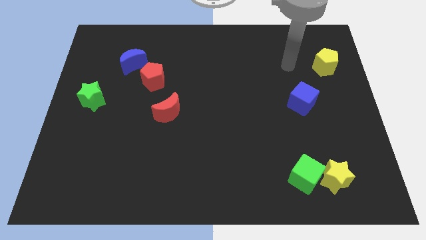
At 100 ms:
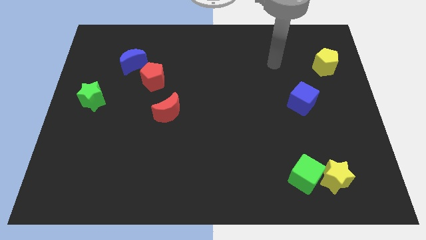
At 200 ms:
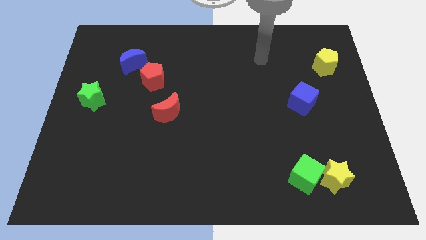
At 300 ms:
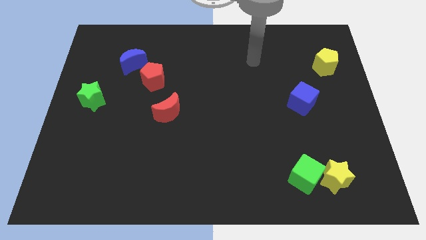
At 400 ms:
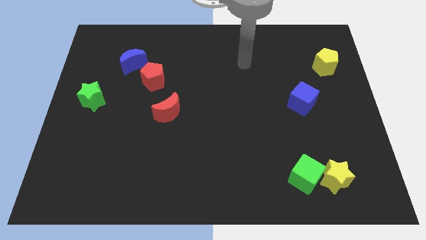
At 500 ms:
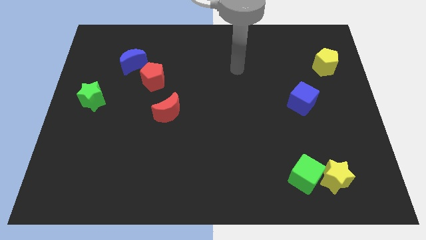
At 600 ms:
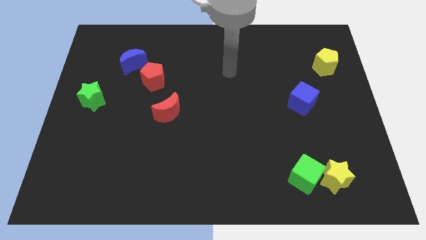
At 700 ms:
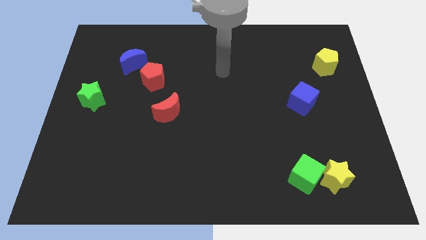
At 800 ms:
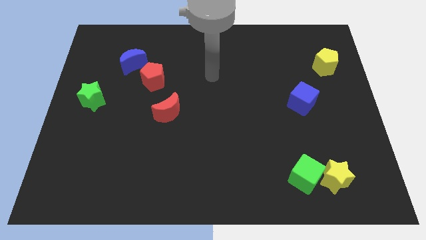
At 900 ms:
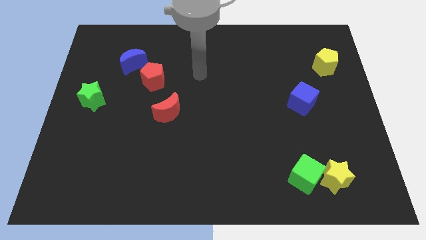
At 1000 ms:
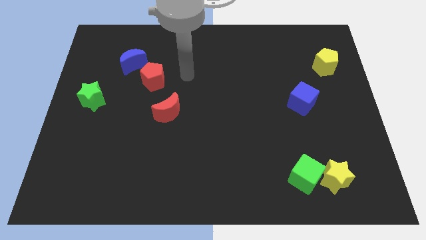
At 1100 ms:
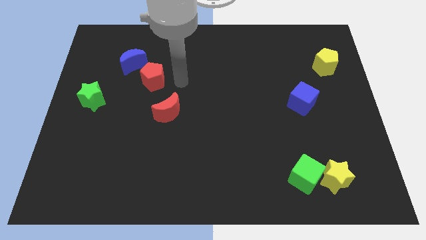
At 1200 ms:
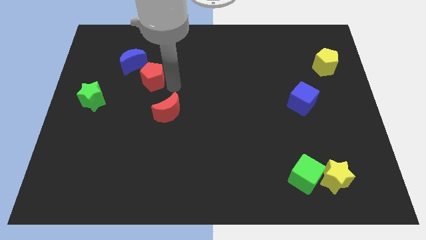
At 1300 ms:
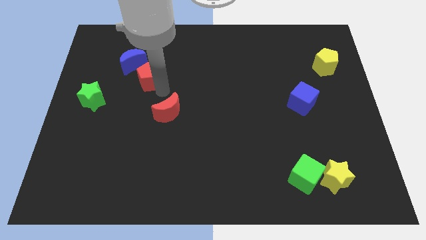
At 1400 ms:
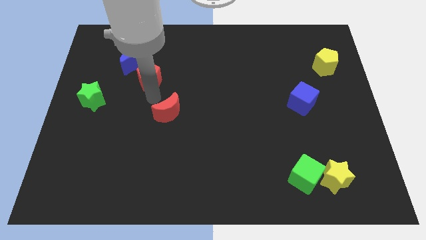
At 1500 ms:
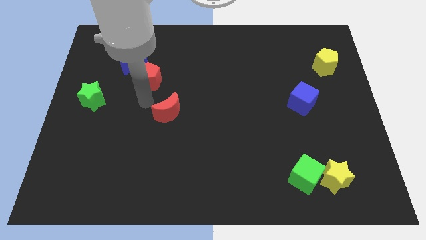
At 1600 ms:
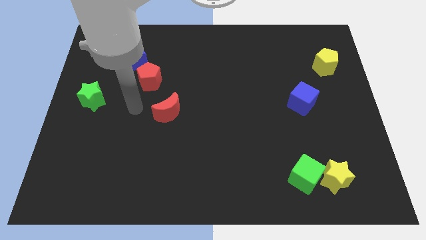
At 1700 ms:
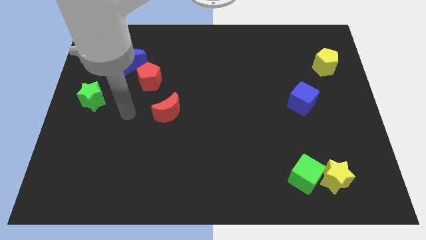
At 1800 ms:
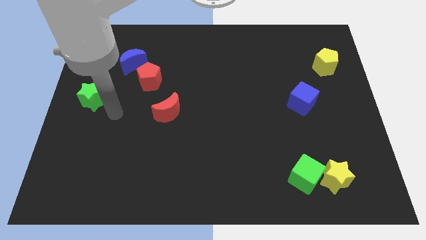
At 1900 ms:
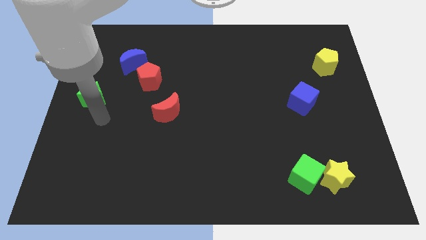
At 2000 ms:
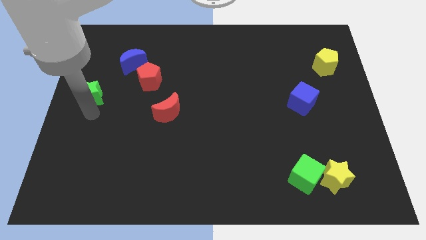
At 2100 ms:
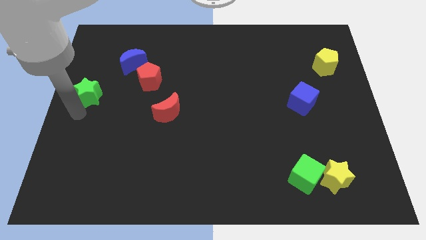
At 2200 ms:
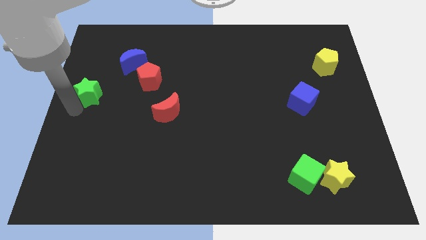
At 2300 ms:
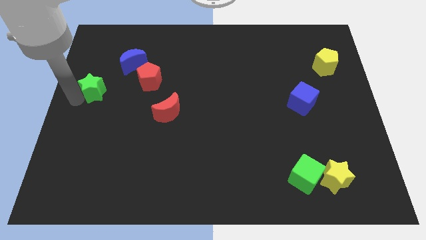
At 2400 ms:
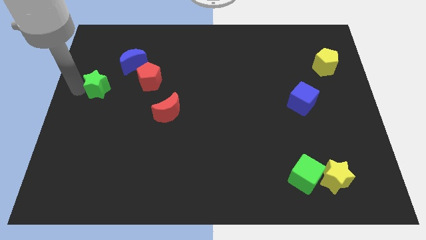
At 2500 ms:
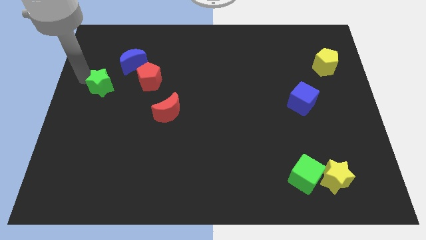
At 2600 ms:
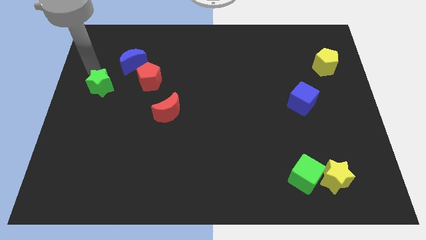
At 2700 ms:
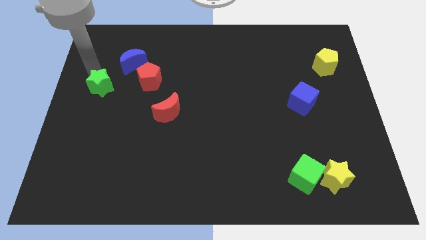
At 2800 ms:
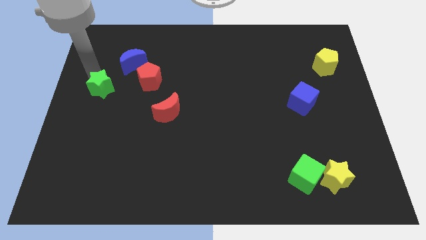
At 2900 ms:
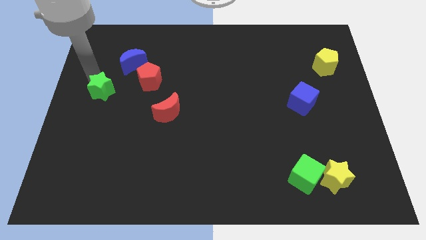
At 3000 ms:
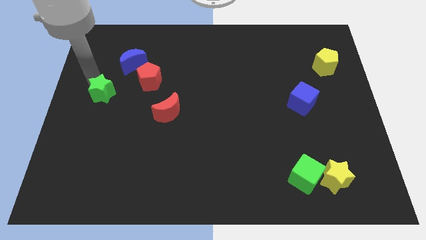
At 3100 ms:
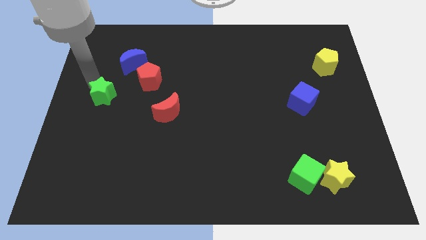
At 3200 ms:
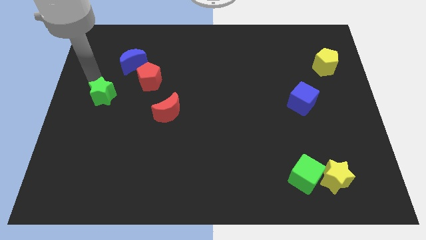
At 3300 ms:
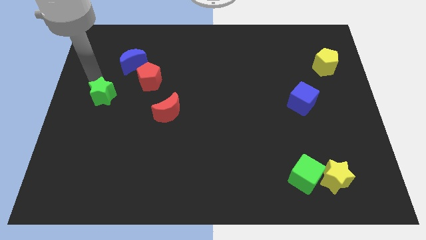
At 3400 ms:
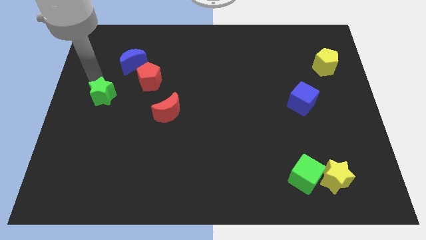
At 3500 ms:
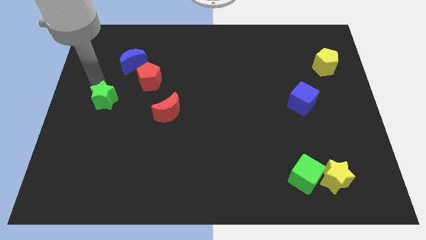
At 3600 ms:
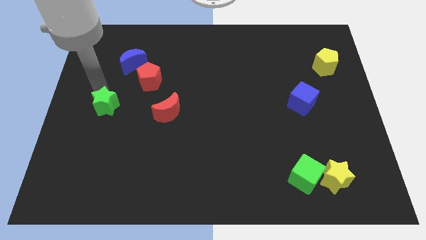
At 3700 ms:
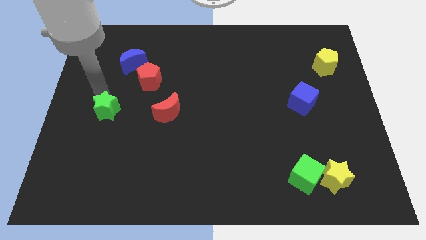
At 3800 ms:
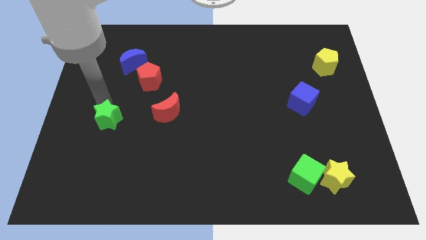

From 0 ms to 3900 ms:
slightly slide the green star diagonally downwards and right

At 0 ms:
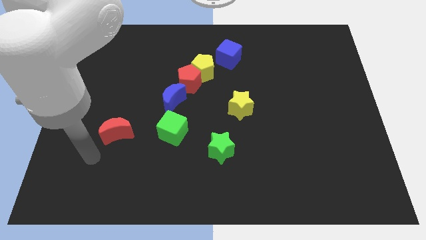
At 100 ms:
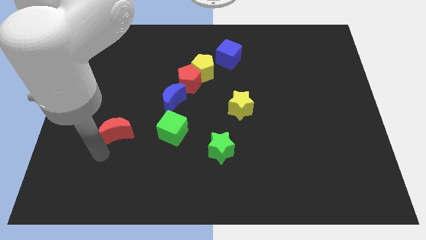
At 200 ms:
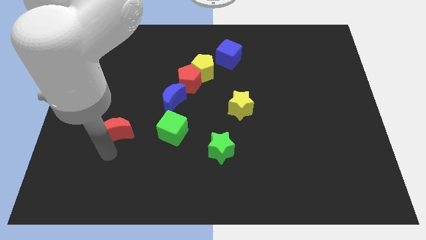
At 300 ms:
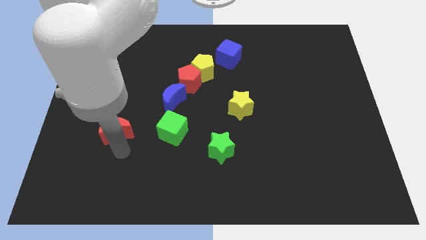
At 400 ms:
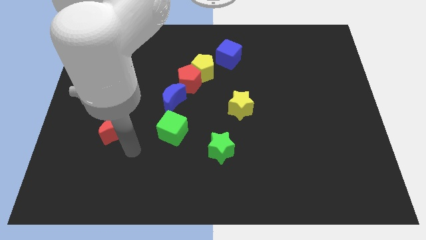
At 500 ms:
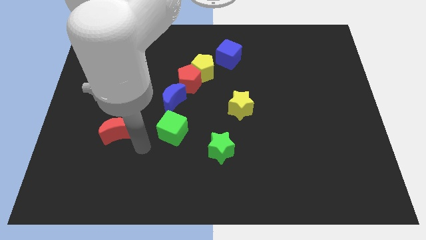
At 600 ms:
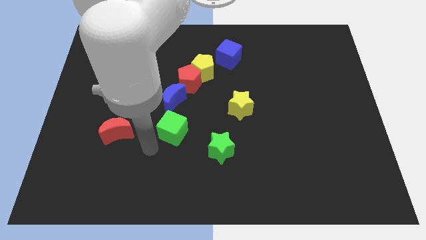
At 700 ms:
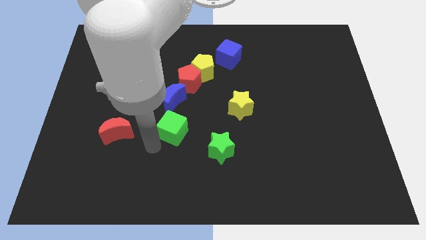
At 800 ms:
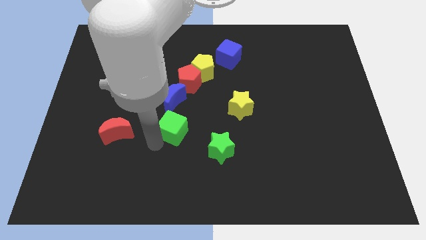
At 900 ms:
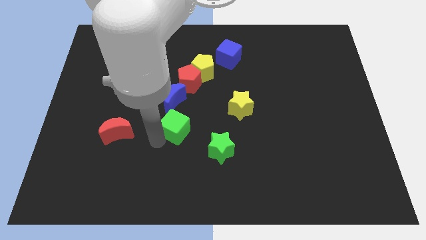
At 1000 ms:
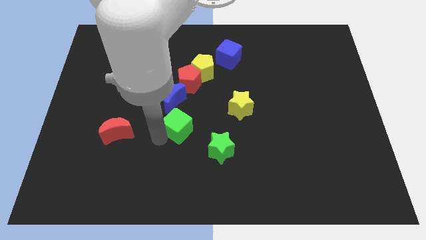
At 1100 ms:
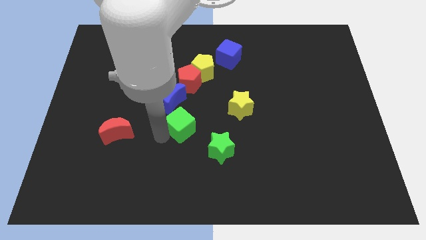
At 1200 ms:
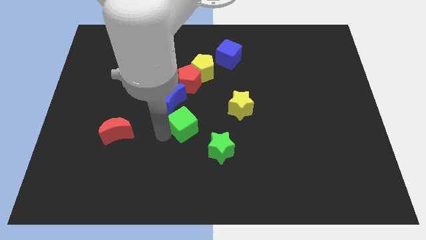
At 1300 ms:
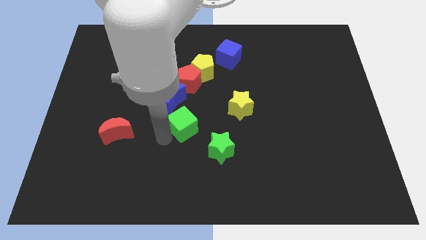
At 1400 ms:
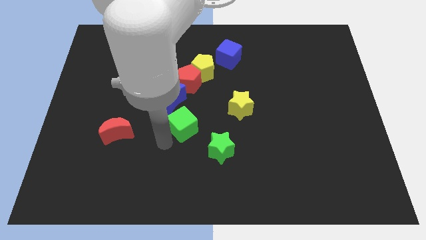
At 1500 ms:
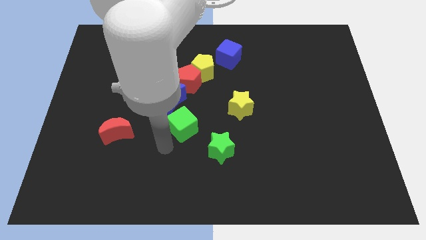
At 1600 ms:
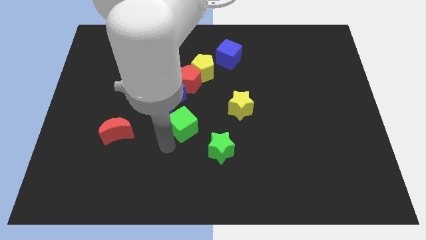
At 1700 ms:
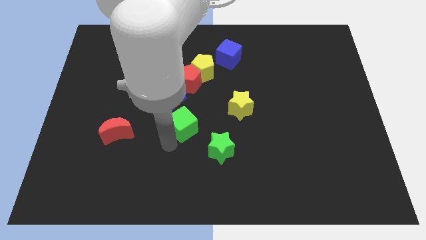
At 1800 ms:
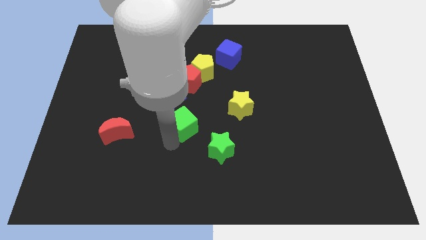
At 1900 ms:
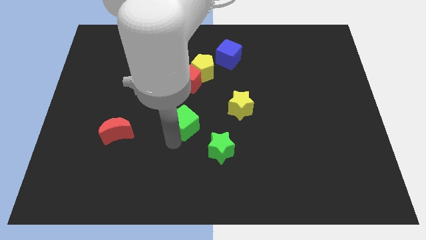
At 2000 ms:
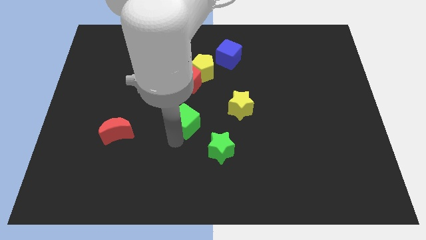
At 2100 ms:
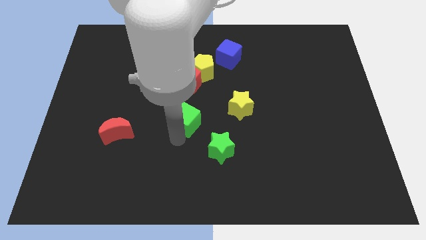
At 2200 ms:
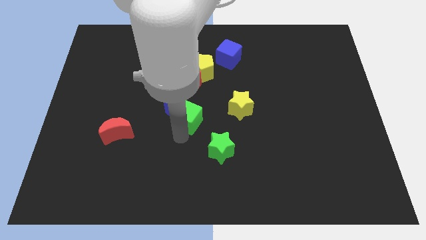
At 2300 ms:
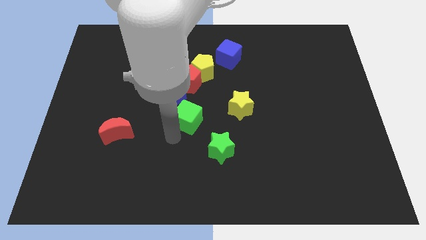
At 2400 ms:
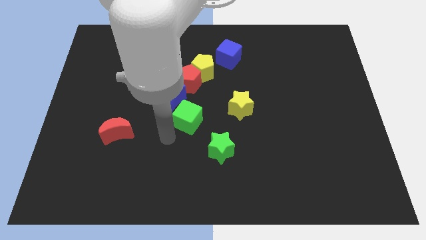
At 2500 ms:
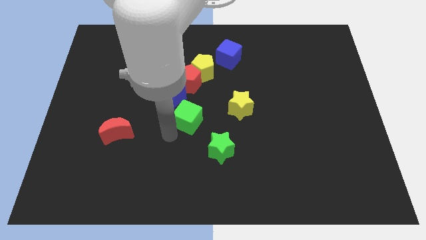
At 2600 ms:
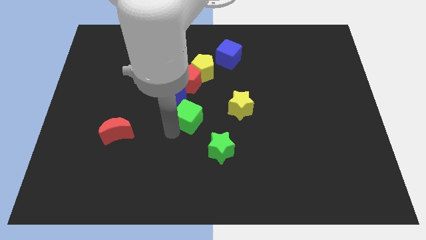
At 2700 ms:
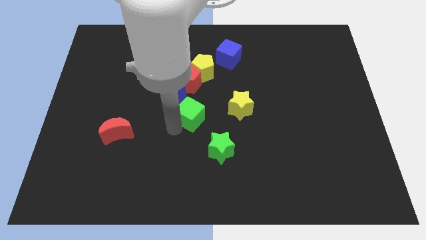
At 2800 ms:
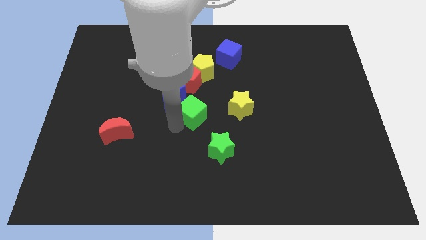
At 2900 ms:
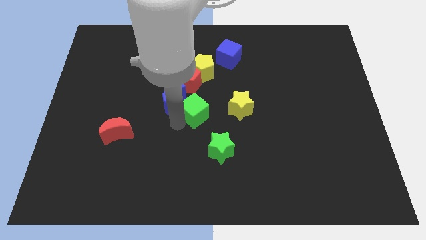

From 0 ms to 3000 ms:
move the green cube slightly up and to the right diagonally

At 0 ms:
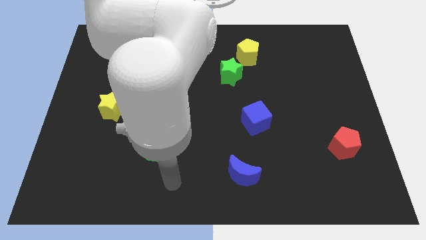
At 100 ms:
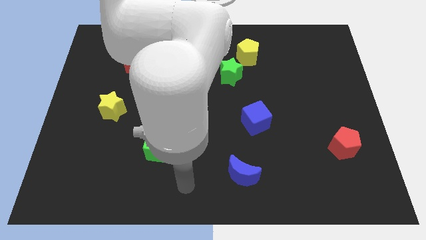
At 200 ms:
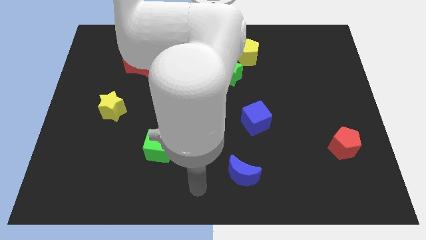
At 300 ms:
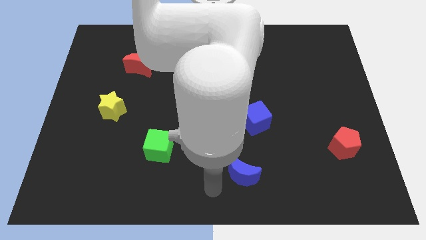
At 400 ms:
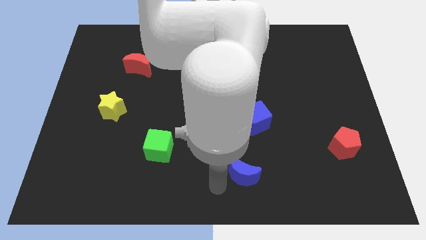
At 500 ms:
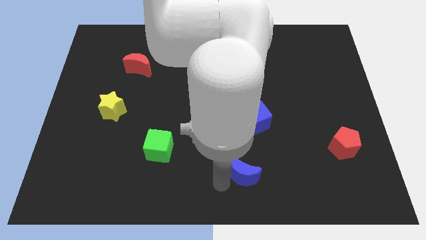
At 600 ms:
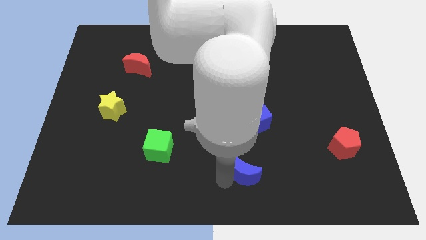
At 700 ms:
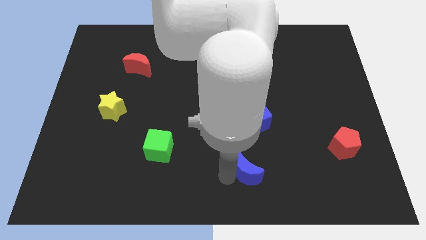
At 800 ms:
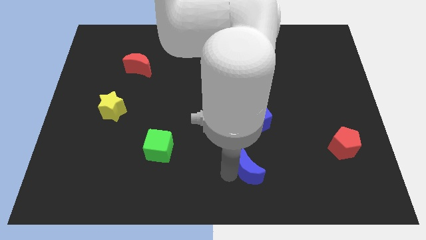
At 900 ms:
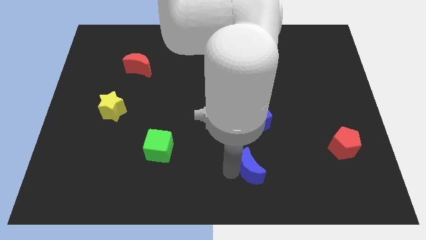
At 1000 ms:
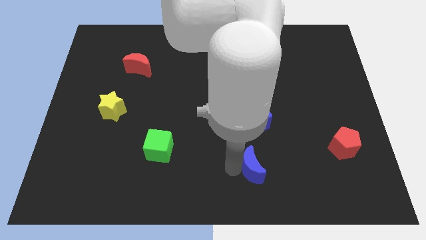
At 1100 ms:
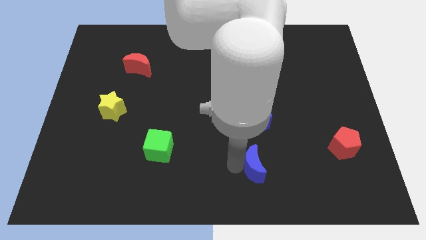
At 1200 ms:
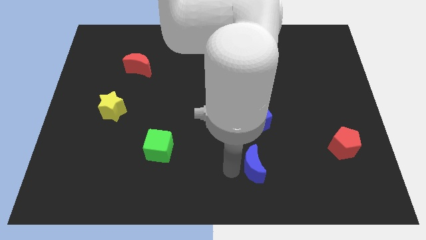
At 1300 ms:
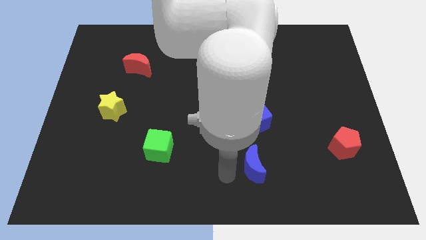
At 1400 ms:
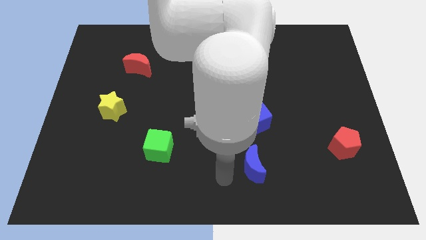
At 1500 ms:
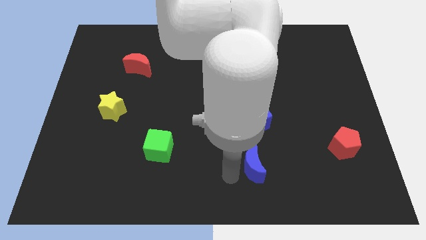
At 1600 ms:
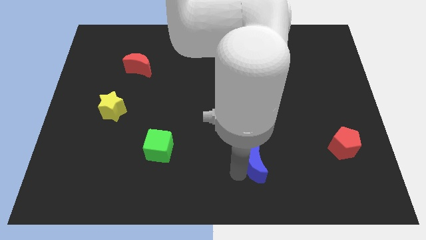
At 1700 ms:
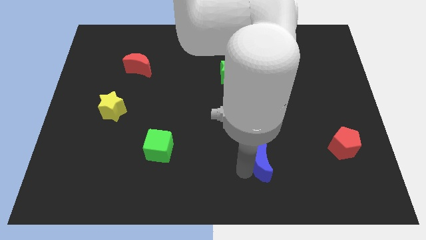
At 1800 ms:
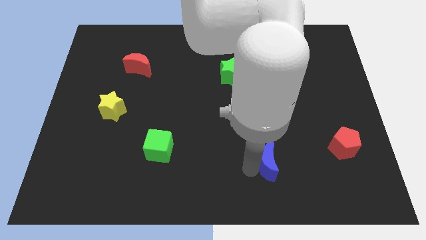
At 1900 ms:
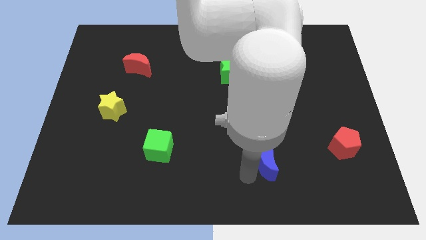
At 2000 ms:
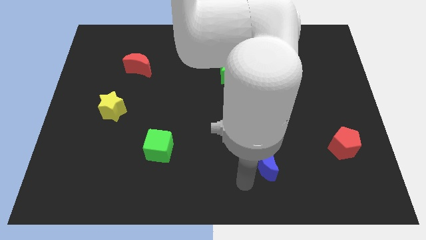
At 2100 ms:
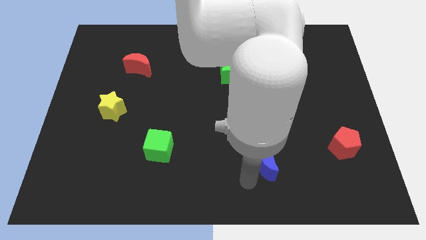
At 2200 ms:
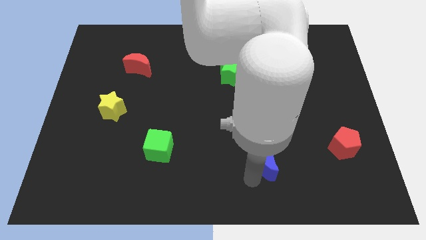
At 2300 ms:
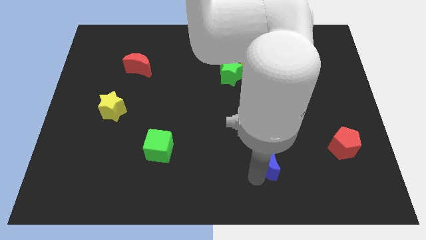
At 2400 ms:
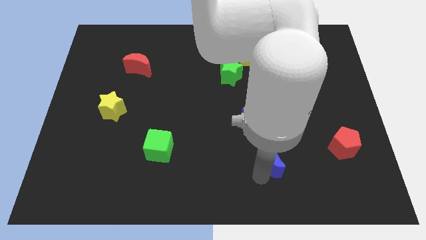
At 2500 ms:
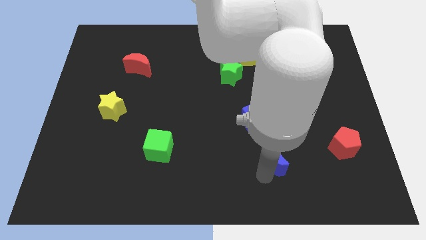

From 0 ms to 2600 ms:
slightly push the blue moon diagonally upwards and right
